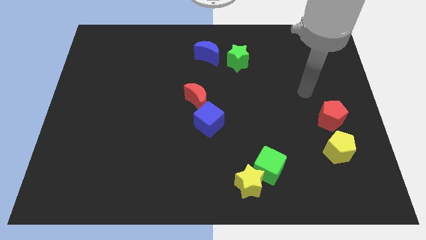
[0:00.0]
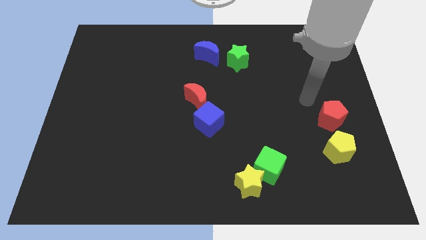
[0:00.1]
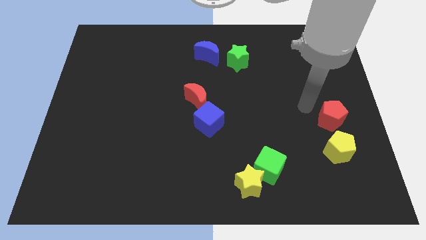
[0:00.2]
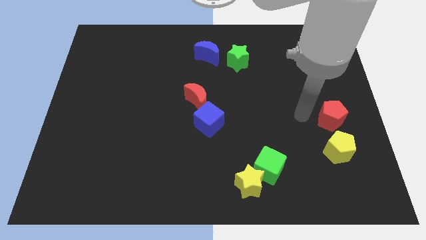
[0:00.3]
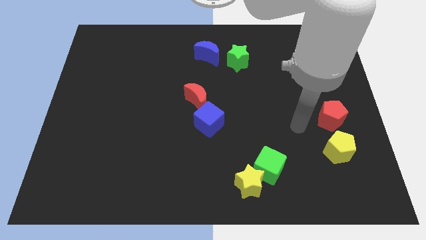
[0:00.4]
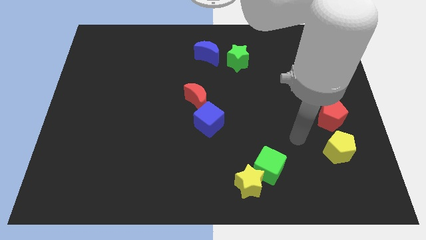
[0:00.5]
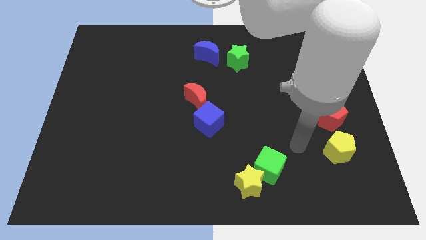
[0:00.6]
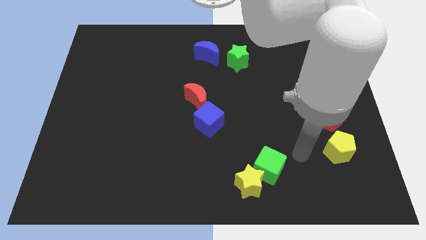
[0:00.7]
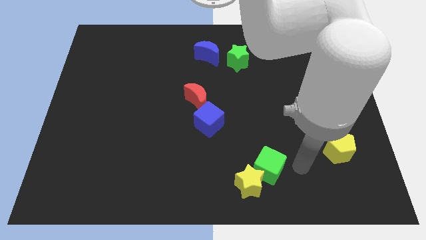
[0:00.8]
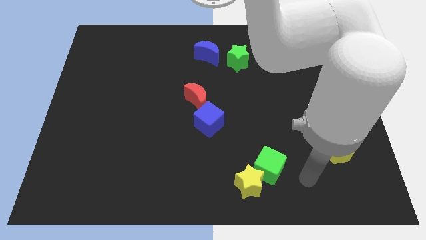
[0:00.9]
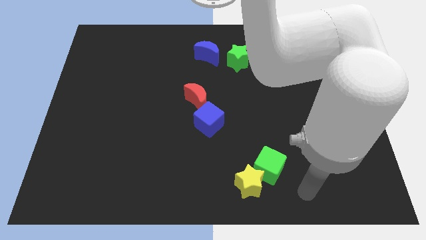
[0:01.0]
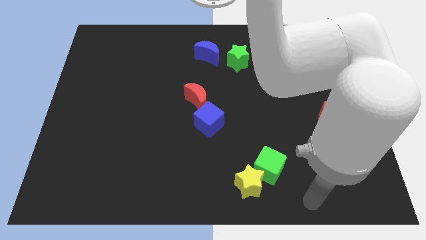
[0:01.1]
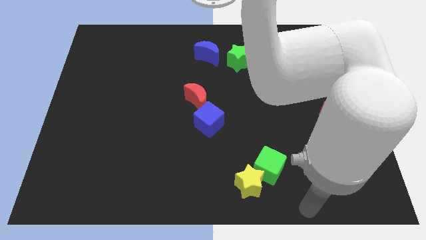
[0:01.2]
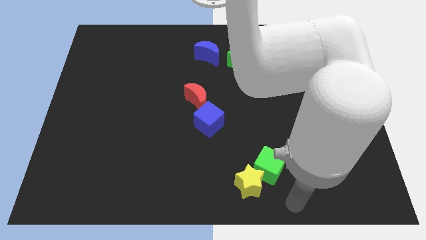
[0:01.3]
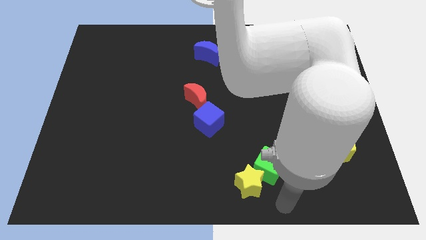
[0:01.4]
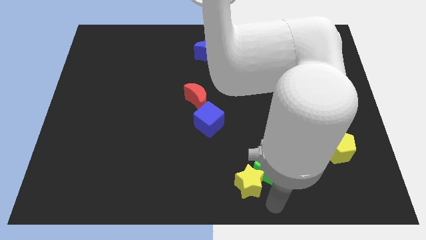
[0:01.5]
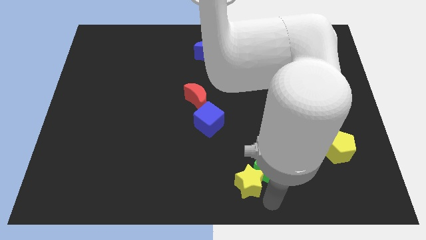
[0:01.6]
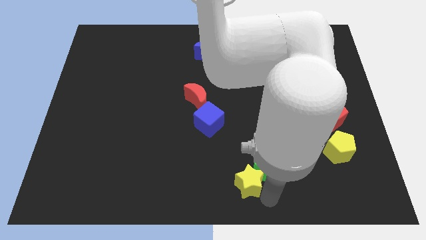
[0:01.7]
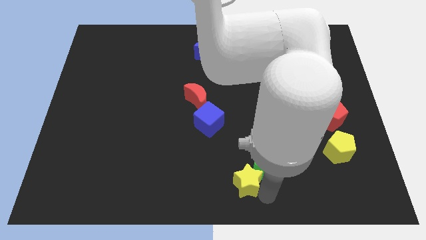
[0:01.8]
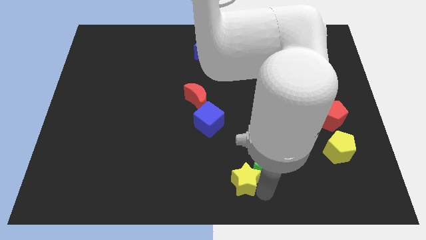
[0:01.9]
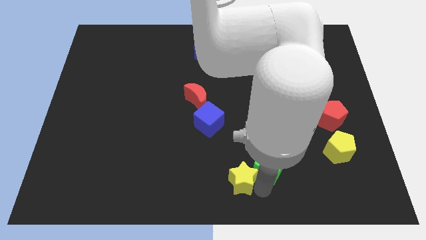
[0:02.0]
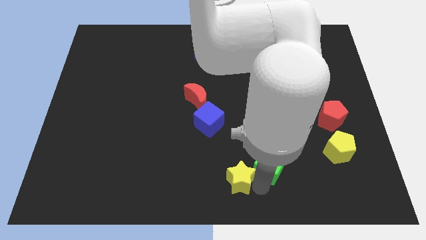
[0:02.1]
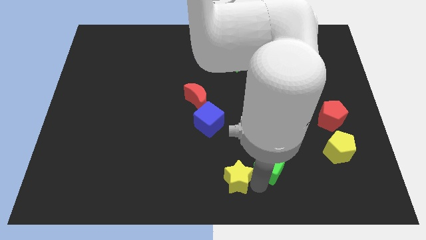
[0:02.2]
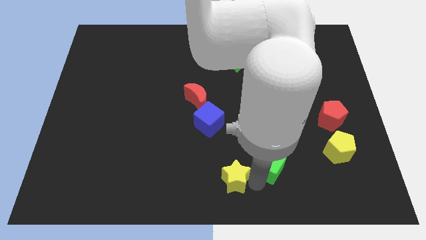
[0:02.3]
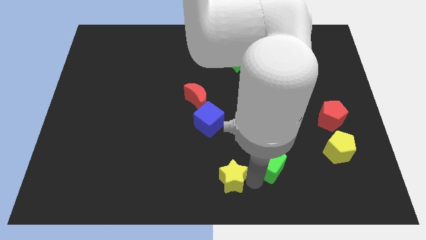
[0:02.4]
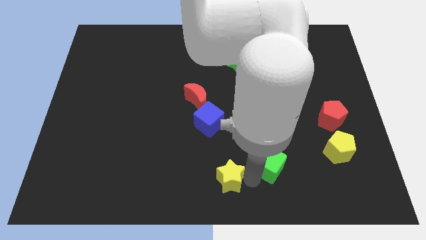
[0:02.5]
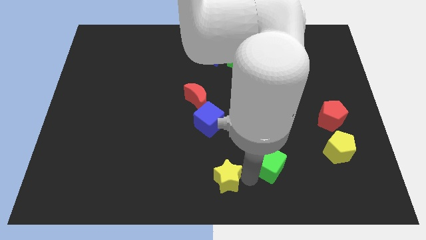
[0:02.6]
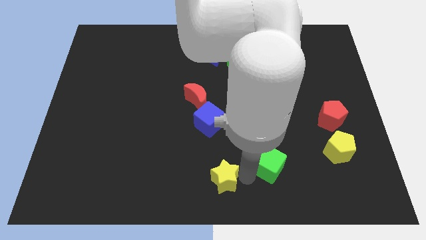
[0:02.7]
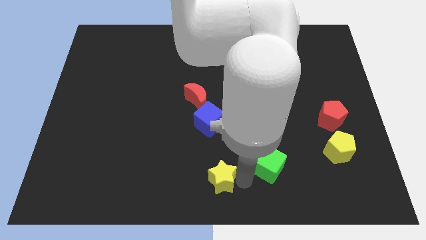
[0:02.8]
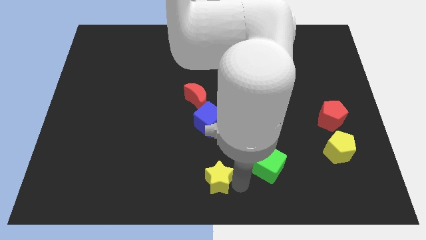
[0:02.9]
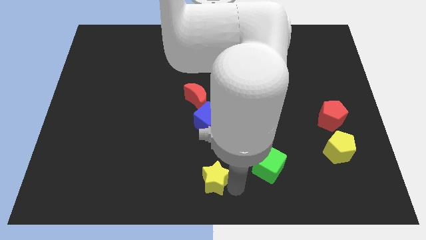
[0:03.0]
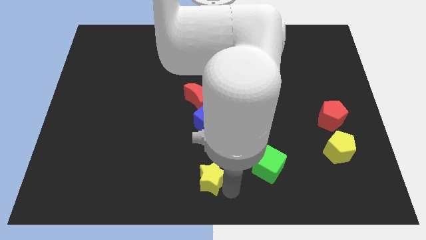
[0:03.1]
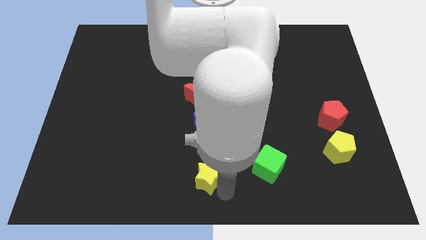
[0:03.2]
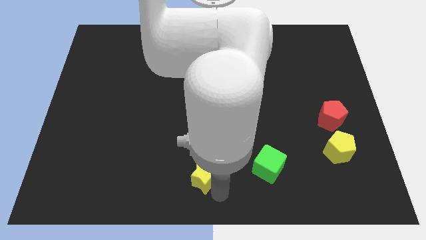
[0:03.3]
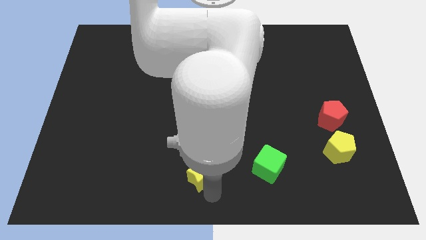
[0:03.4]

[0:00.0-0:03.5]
move the yellow star up and then left a little bit

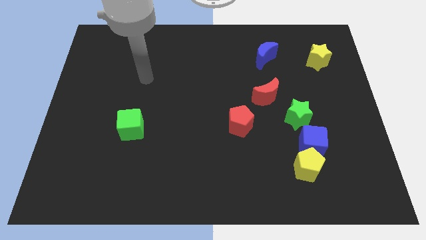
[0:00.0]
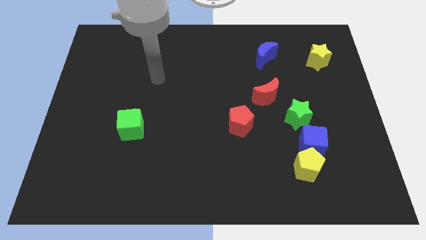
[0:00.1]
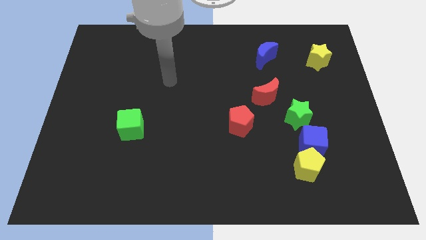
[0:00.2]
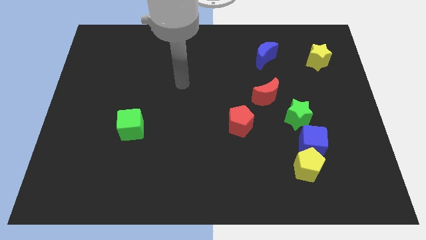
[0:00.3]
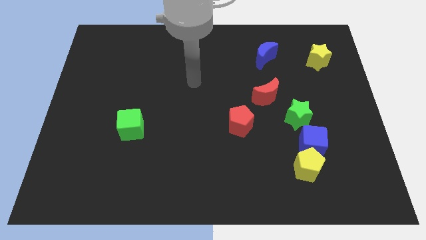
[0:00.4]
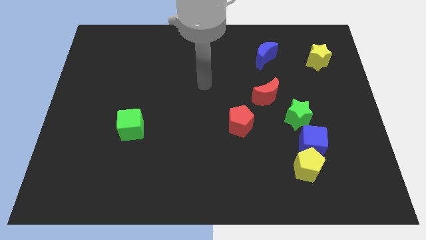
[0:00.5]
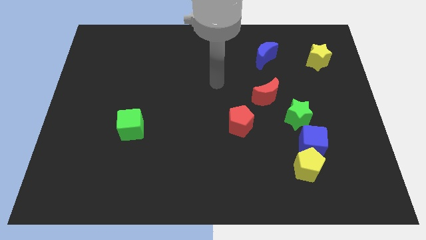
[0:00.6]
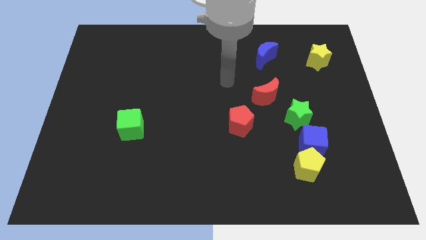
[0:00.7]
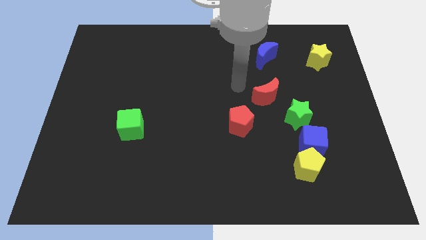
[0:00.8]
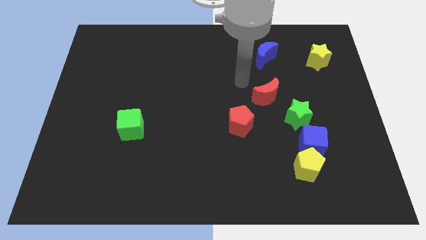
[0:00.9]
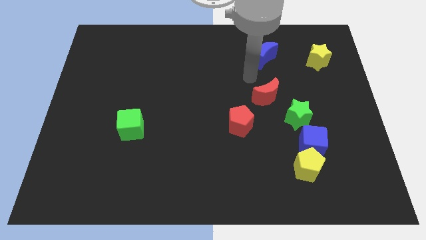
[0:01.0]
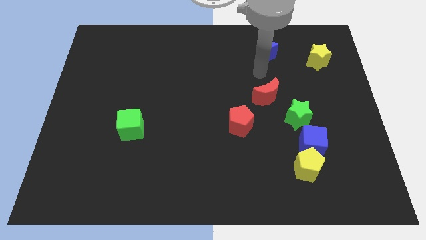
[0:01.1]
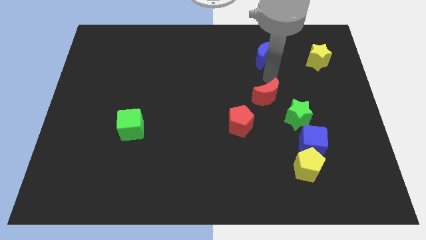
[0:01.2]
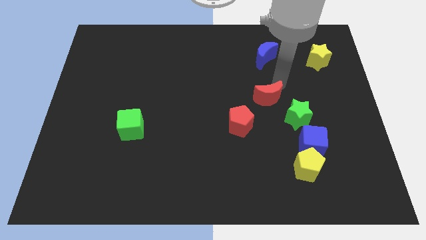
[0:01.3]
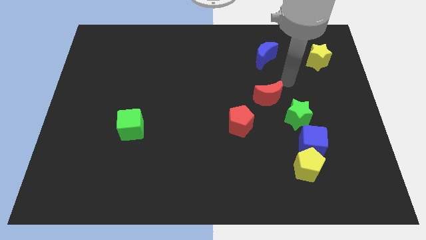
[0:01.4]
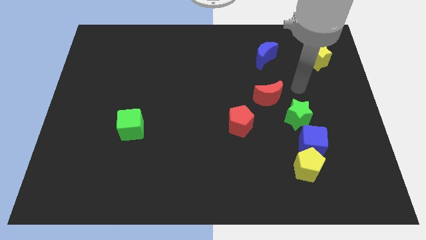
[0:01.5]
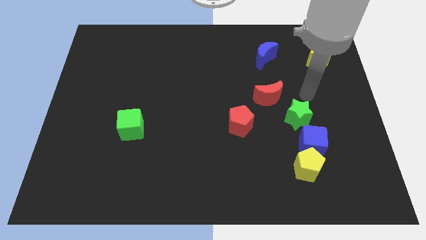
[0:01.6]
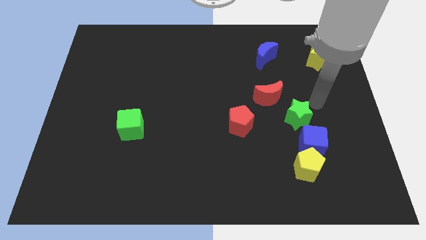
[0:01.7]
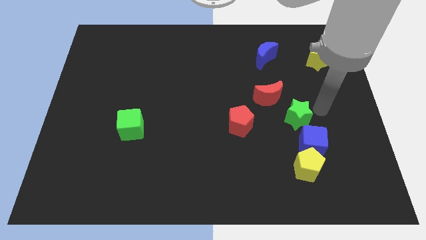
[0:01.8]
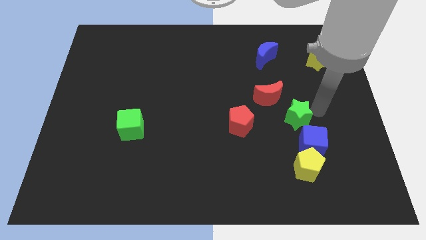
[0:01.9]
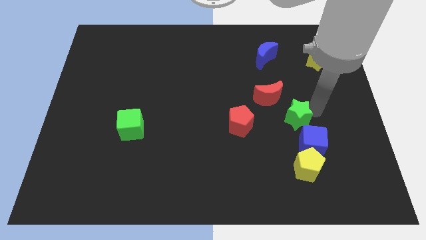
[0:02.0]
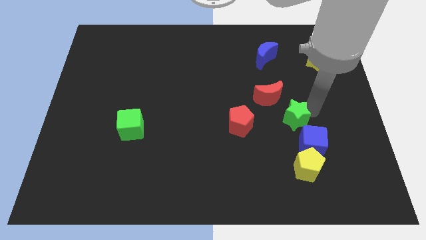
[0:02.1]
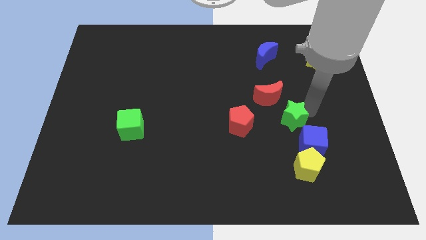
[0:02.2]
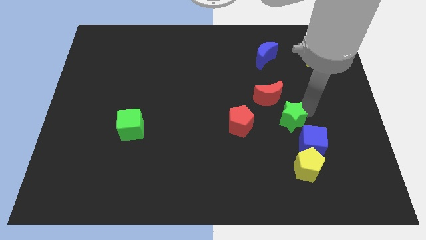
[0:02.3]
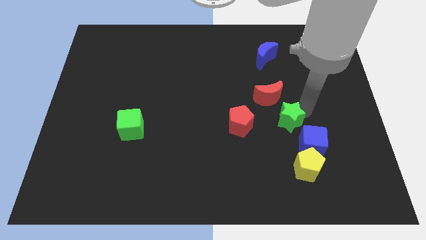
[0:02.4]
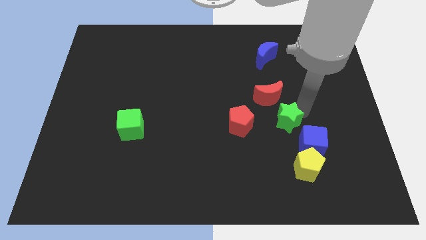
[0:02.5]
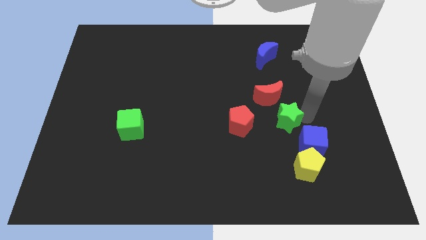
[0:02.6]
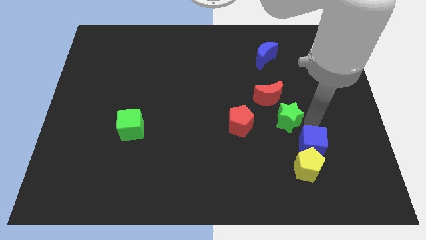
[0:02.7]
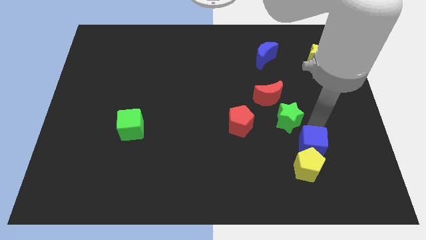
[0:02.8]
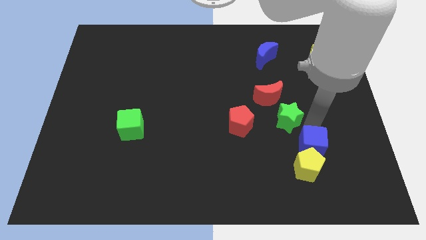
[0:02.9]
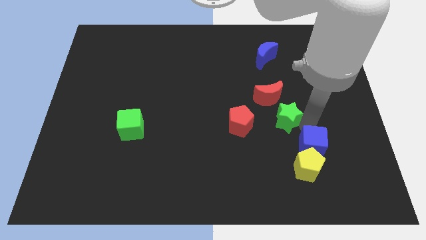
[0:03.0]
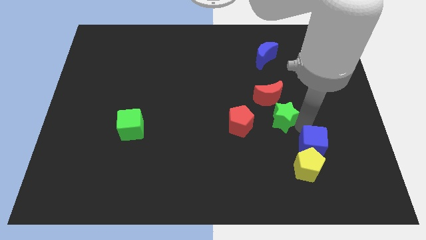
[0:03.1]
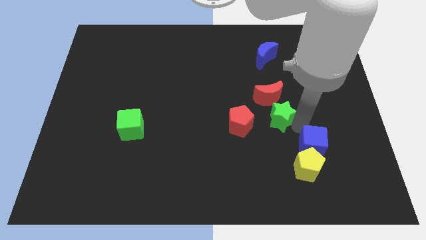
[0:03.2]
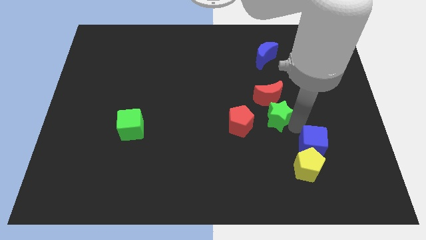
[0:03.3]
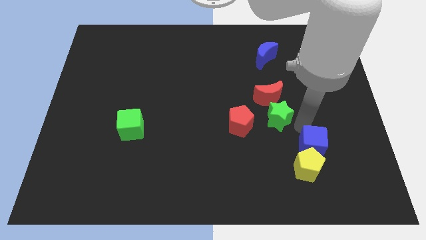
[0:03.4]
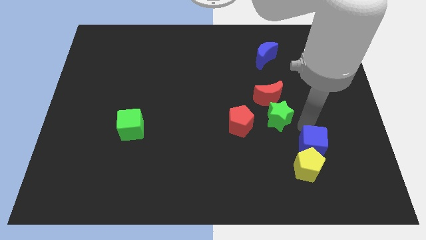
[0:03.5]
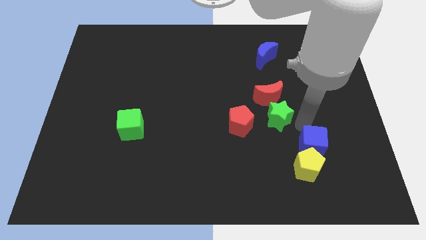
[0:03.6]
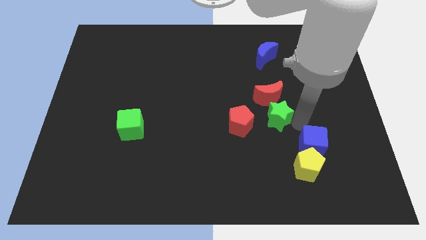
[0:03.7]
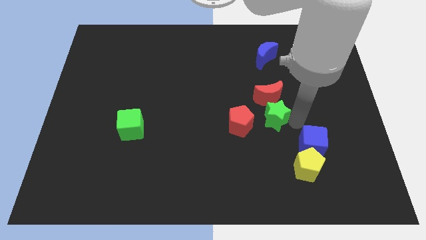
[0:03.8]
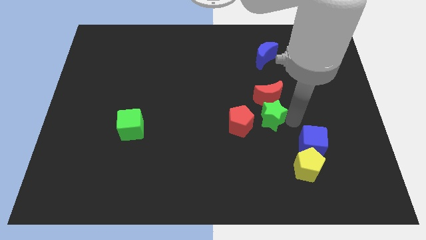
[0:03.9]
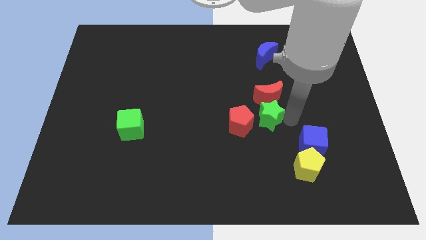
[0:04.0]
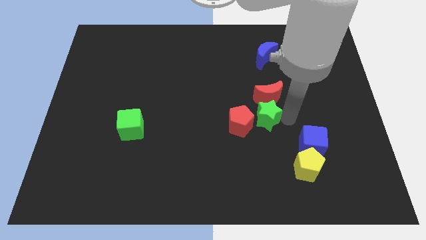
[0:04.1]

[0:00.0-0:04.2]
slightly move the green star left

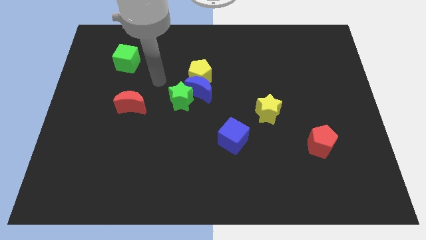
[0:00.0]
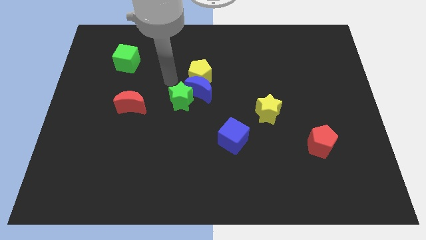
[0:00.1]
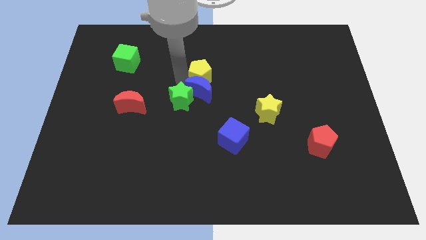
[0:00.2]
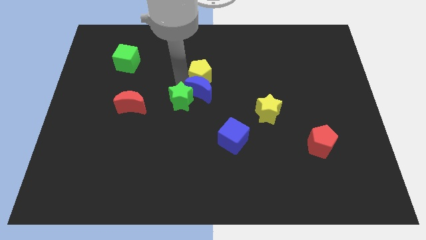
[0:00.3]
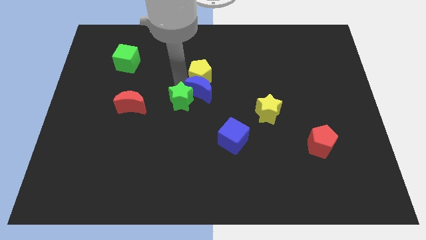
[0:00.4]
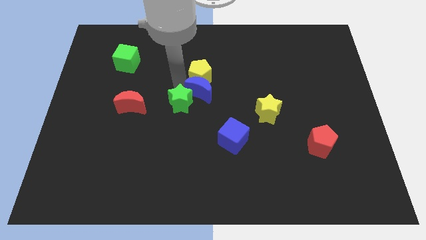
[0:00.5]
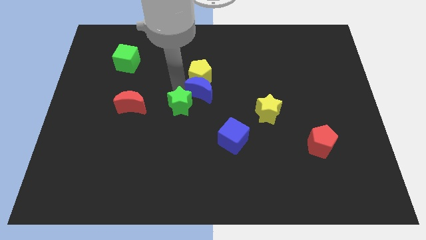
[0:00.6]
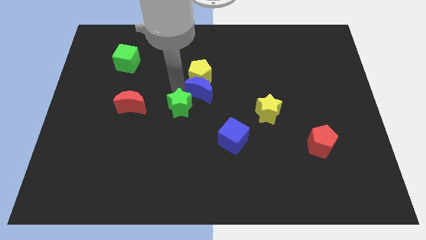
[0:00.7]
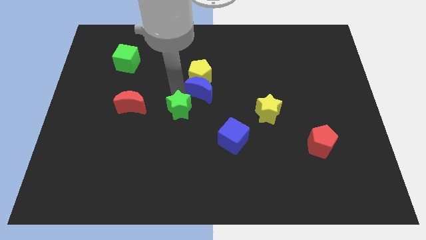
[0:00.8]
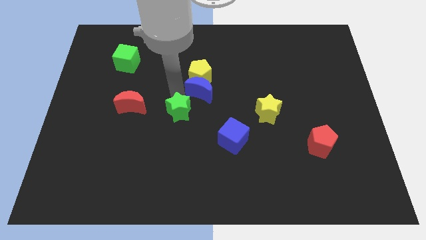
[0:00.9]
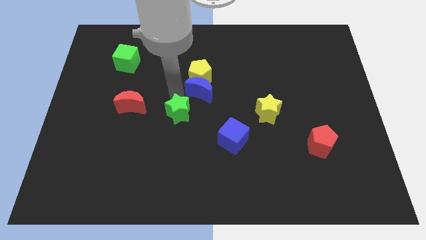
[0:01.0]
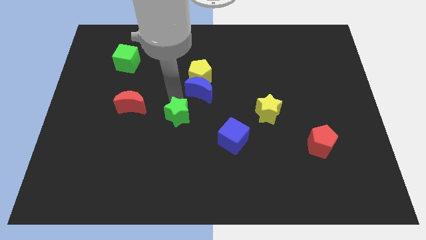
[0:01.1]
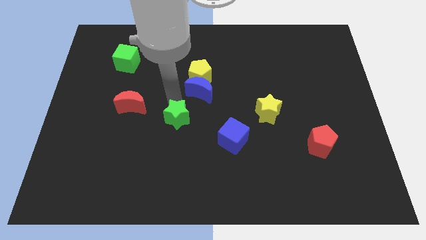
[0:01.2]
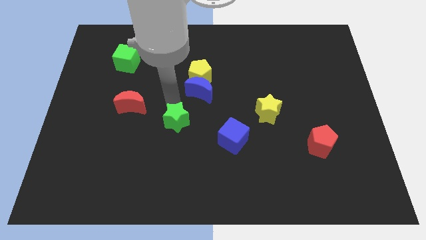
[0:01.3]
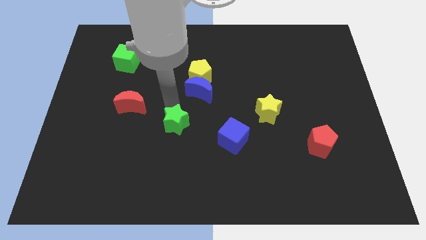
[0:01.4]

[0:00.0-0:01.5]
move the green star a little bit down
